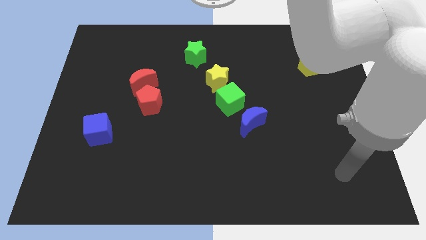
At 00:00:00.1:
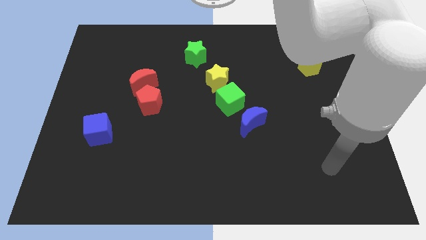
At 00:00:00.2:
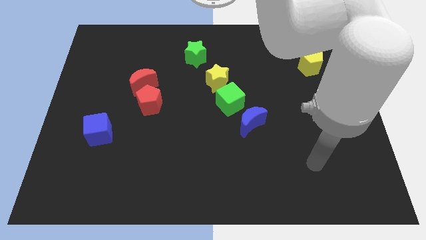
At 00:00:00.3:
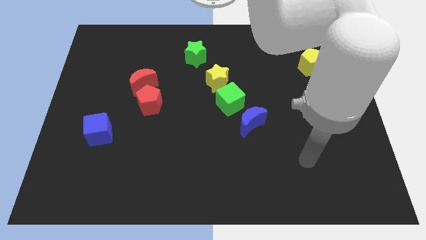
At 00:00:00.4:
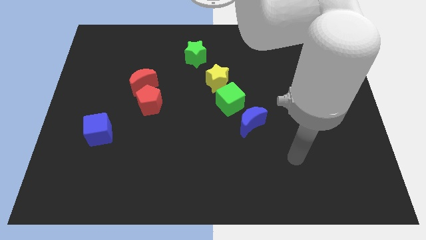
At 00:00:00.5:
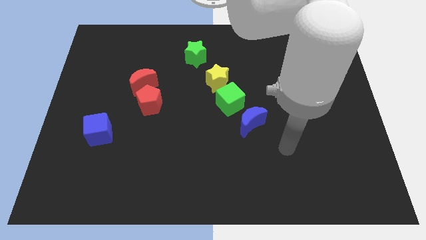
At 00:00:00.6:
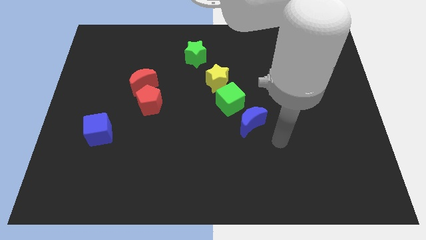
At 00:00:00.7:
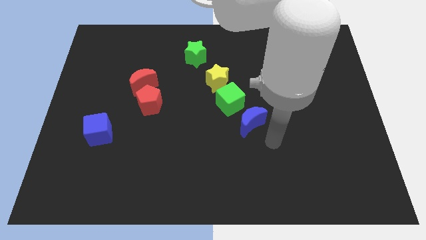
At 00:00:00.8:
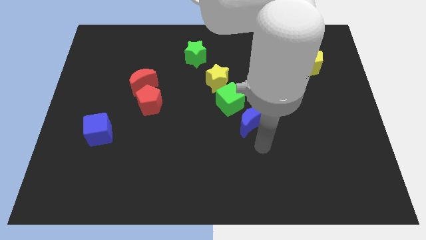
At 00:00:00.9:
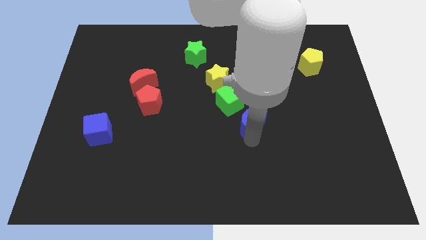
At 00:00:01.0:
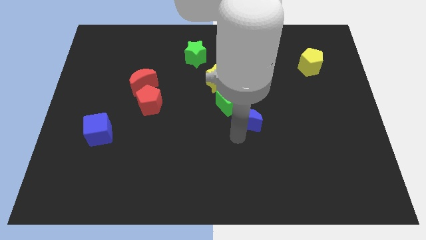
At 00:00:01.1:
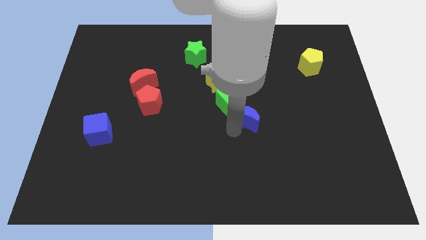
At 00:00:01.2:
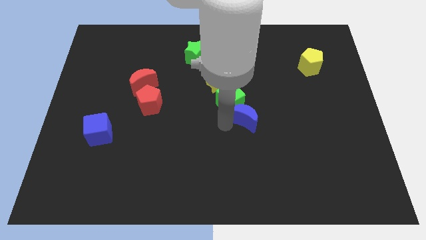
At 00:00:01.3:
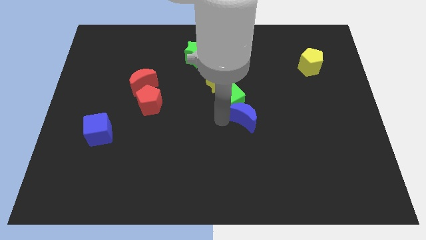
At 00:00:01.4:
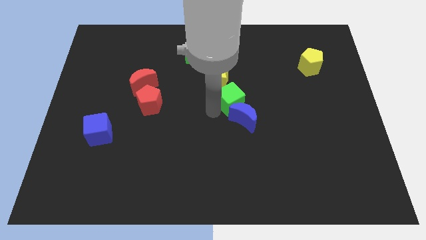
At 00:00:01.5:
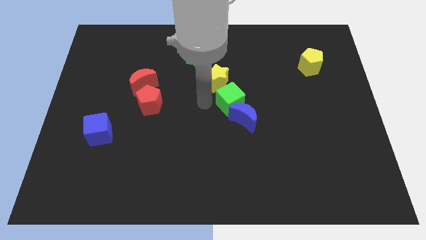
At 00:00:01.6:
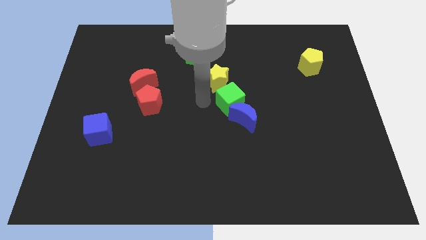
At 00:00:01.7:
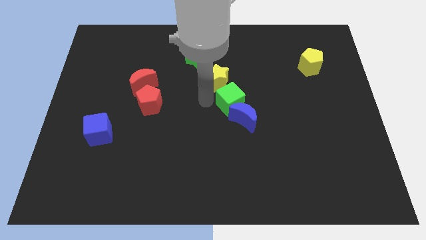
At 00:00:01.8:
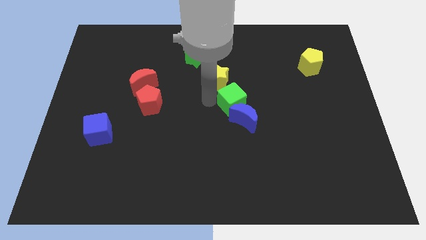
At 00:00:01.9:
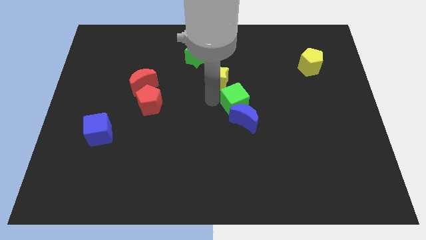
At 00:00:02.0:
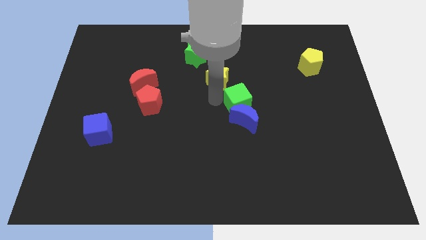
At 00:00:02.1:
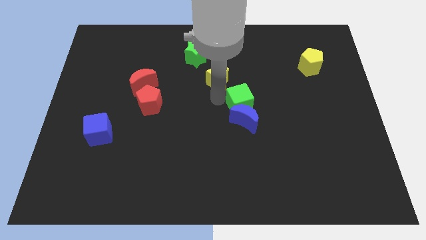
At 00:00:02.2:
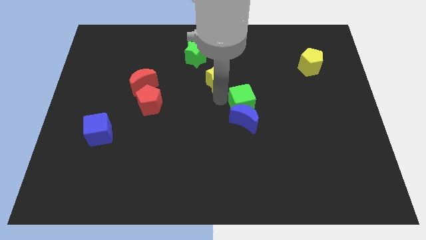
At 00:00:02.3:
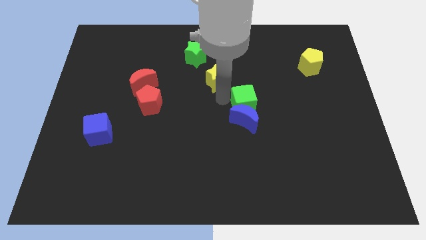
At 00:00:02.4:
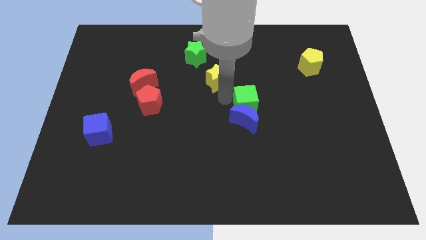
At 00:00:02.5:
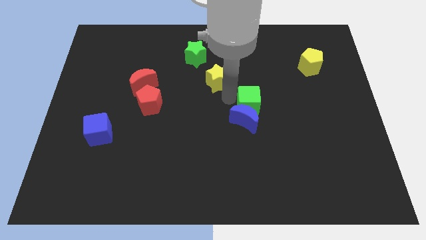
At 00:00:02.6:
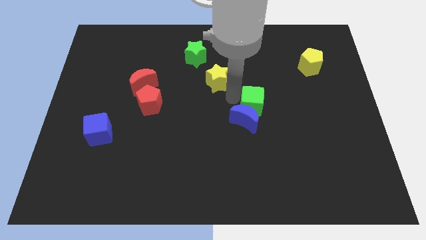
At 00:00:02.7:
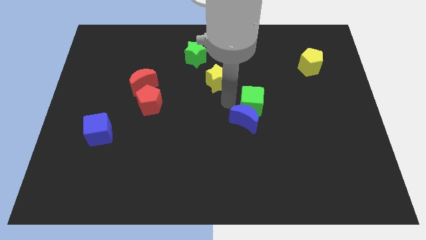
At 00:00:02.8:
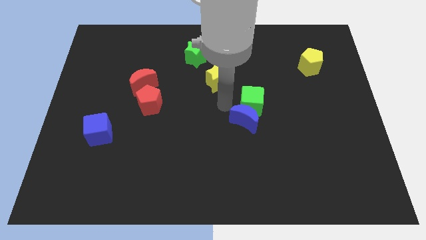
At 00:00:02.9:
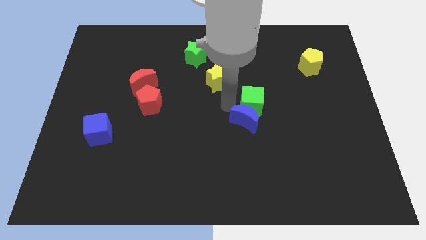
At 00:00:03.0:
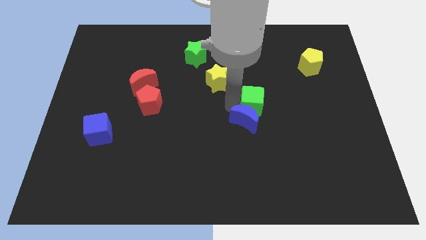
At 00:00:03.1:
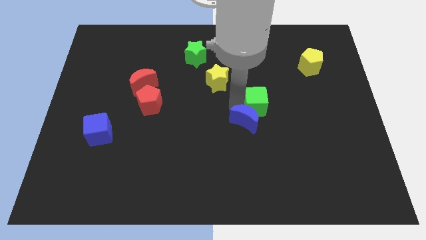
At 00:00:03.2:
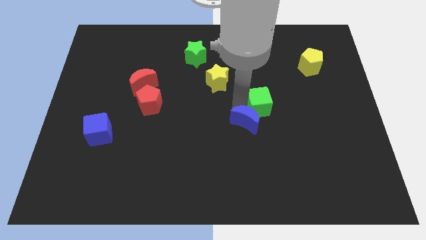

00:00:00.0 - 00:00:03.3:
move the green cube right a bit

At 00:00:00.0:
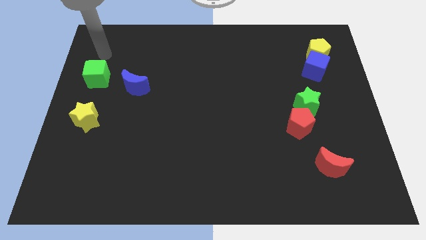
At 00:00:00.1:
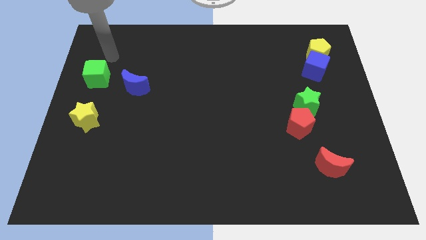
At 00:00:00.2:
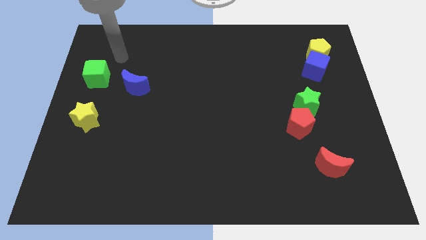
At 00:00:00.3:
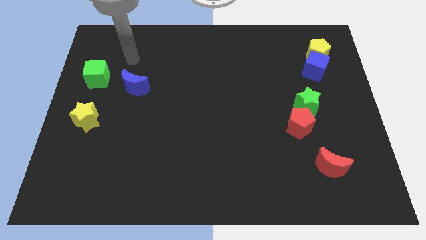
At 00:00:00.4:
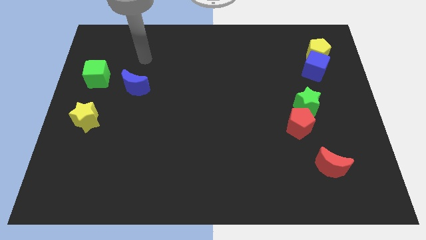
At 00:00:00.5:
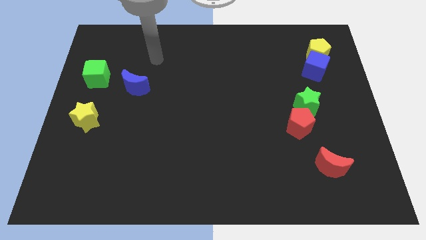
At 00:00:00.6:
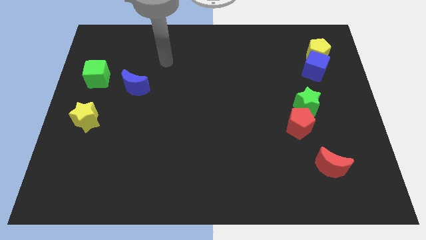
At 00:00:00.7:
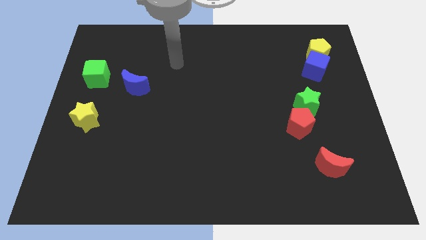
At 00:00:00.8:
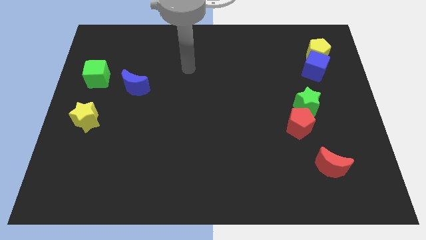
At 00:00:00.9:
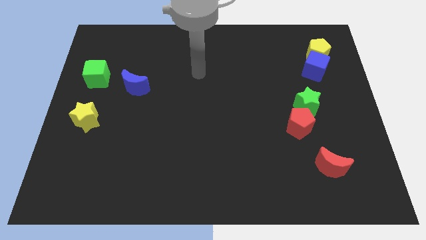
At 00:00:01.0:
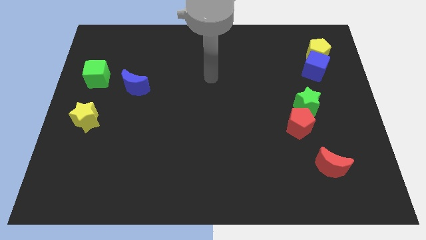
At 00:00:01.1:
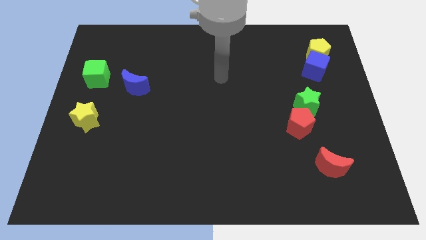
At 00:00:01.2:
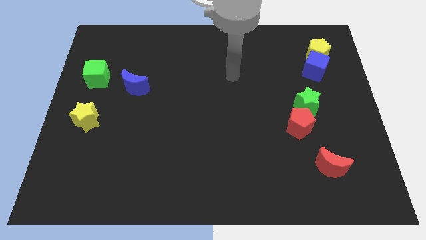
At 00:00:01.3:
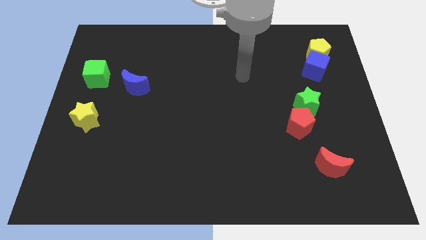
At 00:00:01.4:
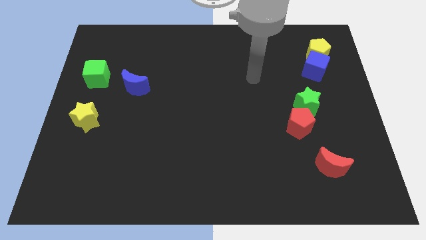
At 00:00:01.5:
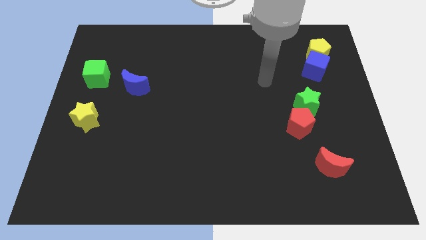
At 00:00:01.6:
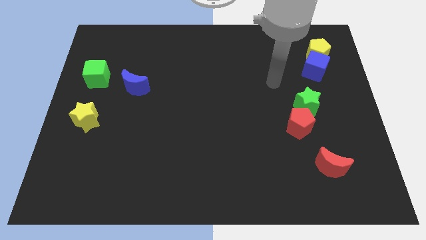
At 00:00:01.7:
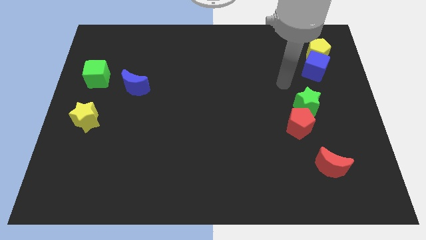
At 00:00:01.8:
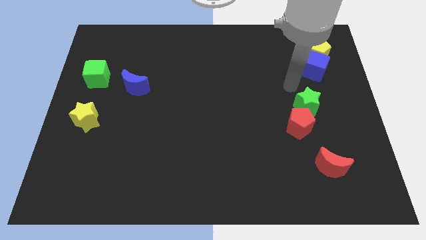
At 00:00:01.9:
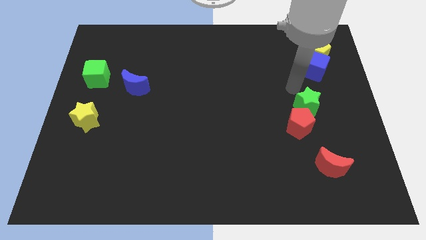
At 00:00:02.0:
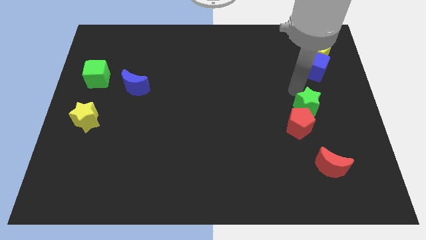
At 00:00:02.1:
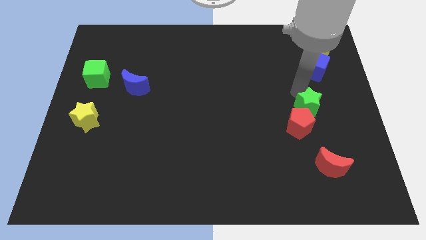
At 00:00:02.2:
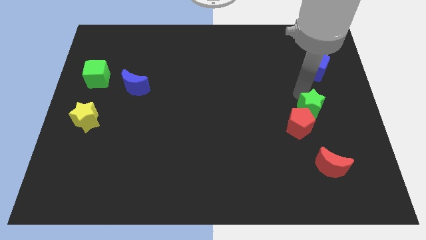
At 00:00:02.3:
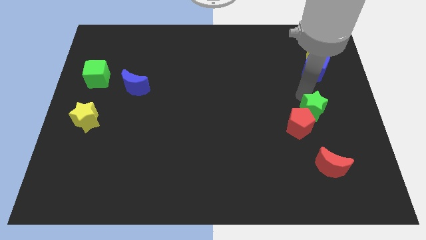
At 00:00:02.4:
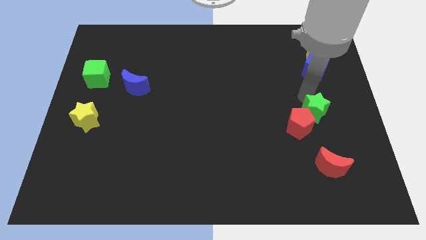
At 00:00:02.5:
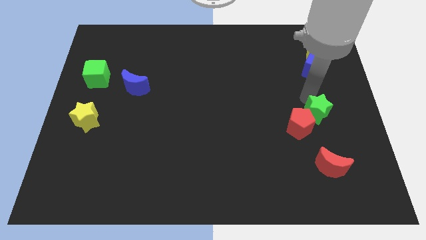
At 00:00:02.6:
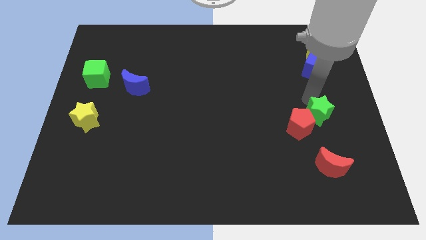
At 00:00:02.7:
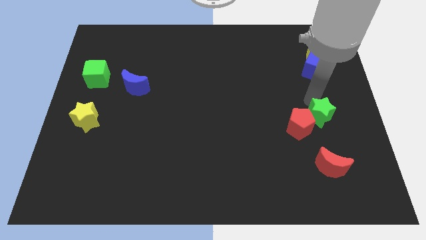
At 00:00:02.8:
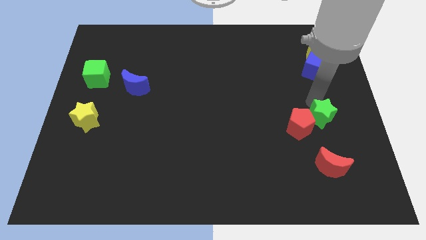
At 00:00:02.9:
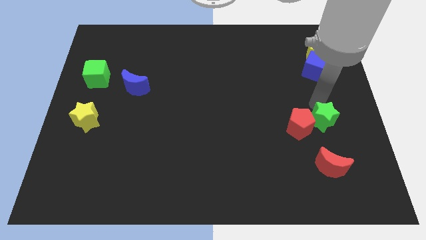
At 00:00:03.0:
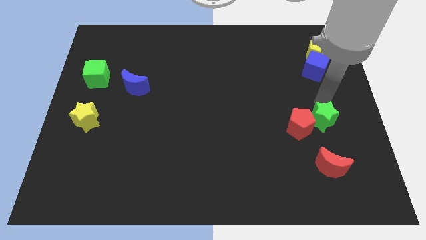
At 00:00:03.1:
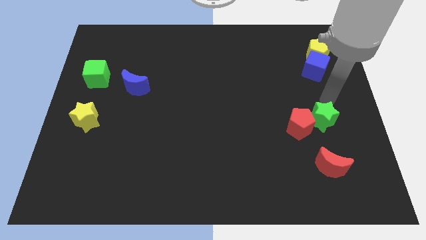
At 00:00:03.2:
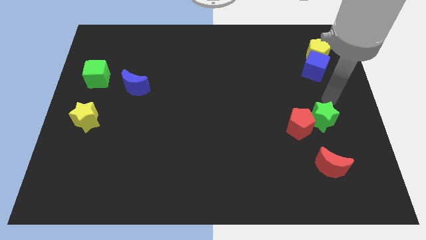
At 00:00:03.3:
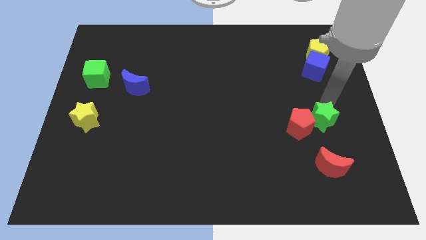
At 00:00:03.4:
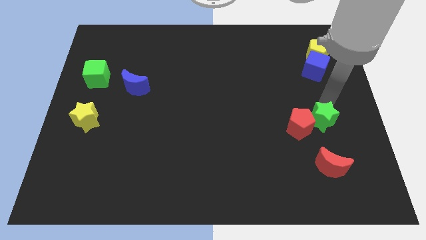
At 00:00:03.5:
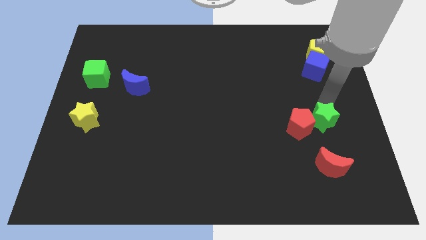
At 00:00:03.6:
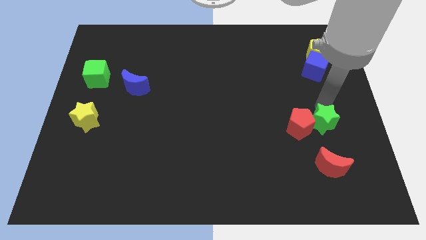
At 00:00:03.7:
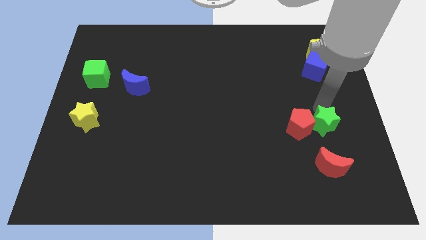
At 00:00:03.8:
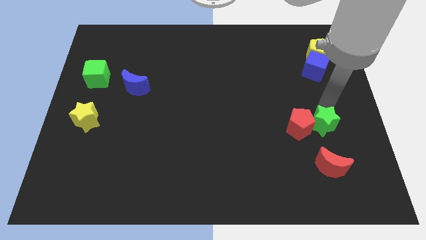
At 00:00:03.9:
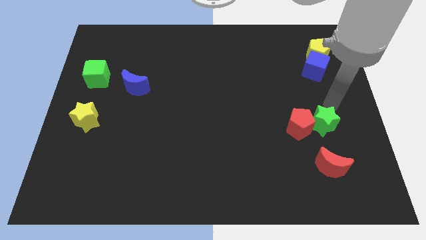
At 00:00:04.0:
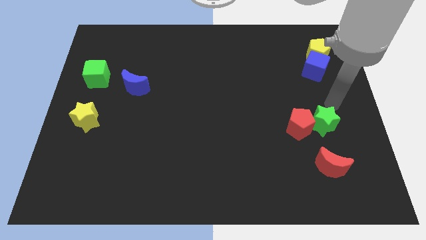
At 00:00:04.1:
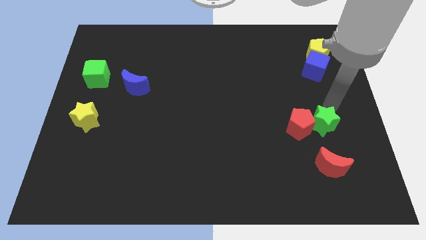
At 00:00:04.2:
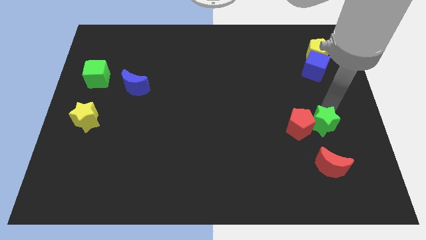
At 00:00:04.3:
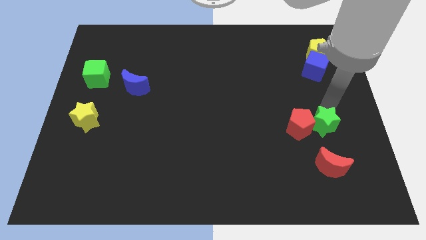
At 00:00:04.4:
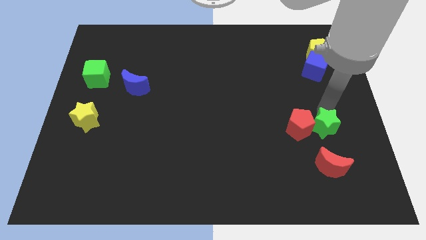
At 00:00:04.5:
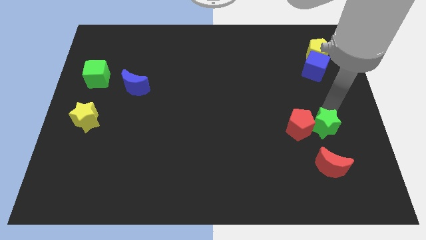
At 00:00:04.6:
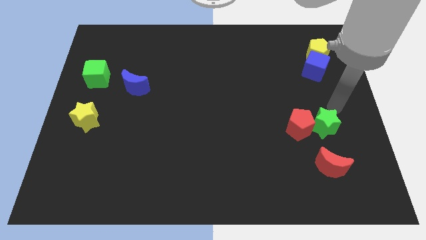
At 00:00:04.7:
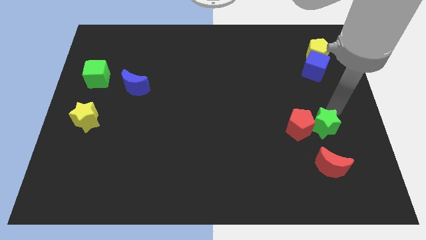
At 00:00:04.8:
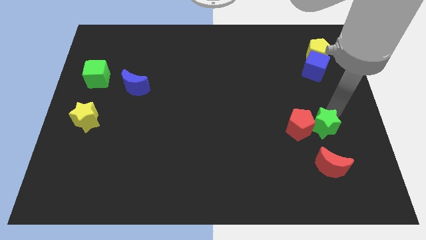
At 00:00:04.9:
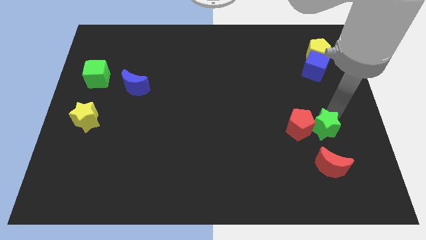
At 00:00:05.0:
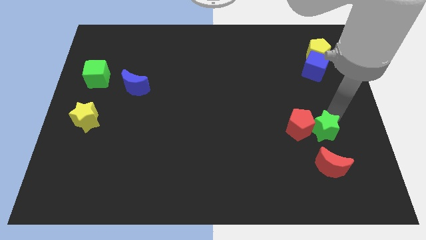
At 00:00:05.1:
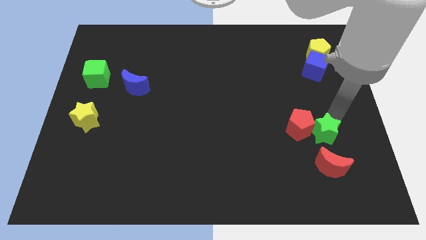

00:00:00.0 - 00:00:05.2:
push the green star downwards a little bit
